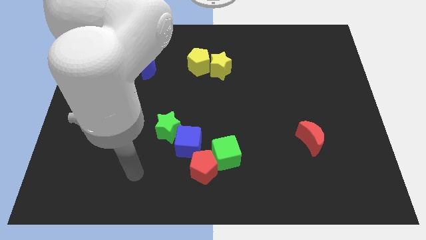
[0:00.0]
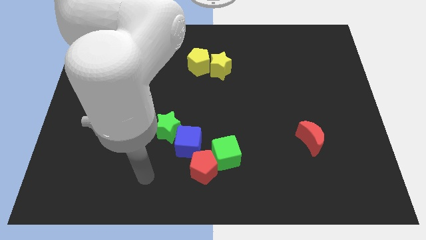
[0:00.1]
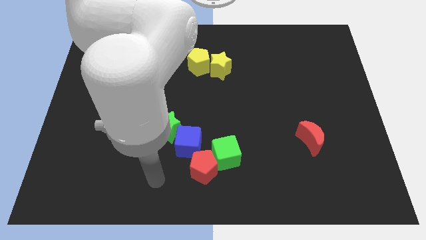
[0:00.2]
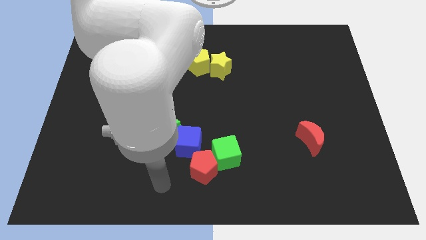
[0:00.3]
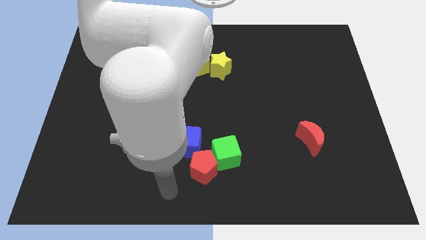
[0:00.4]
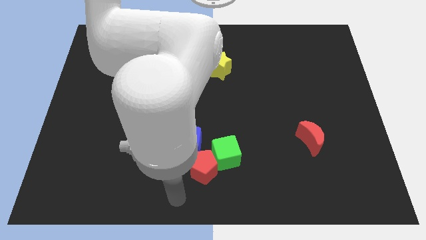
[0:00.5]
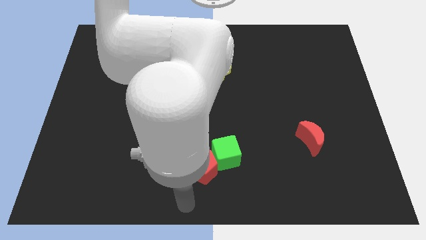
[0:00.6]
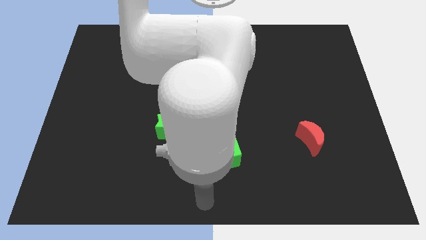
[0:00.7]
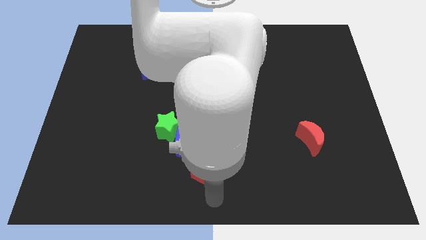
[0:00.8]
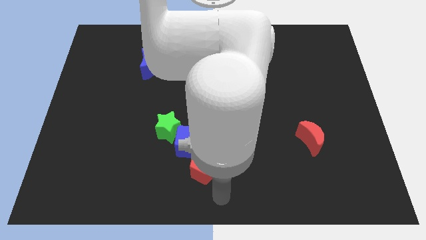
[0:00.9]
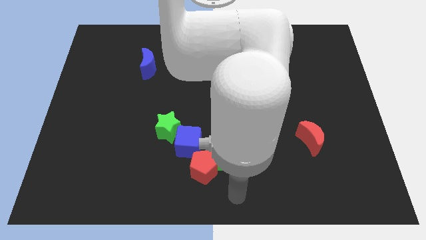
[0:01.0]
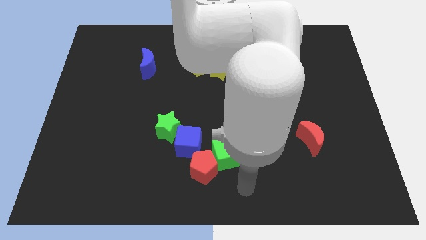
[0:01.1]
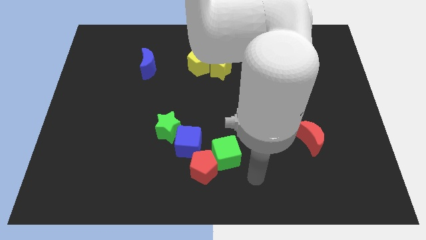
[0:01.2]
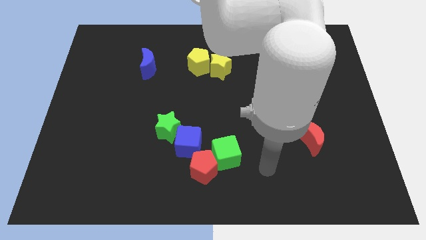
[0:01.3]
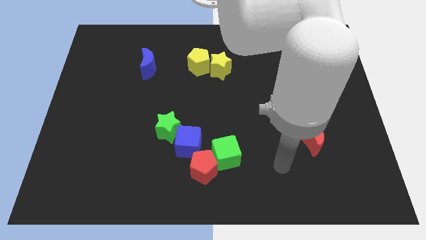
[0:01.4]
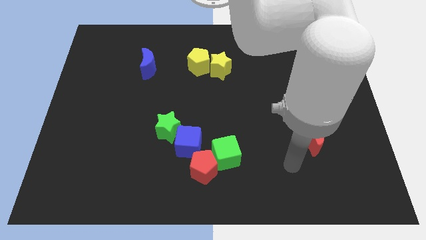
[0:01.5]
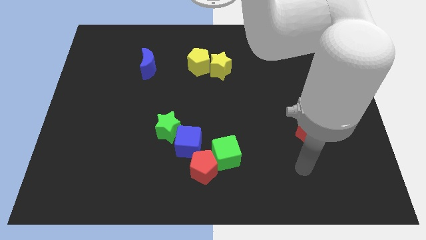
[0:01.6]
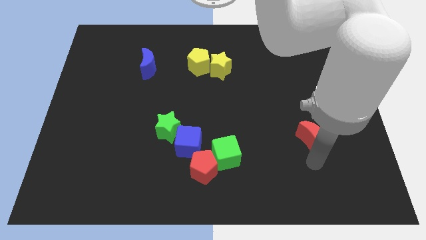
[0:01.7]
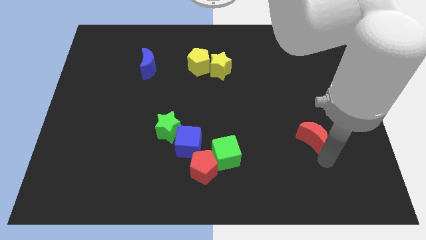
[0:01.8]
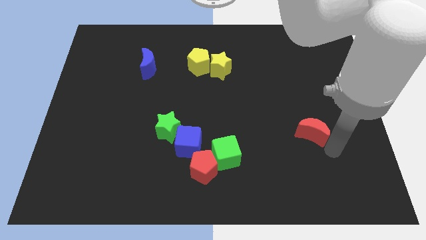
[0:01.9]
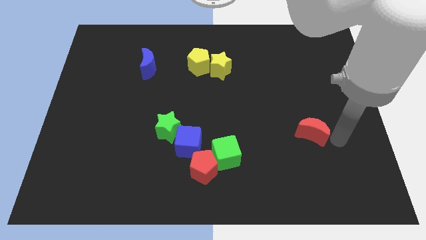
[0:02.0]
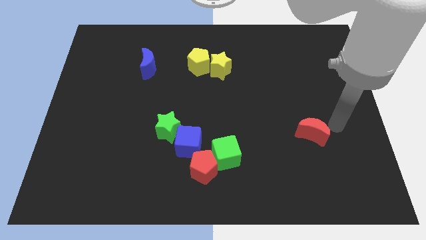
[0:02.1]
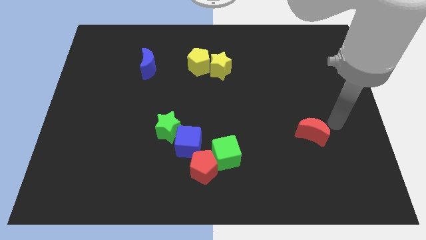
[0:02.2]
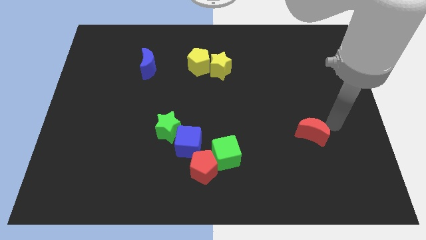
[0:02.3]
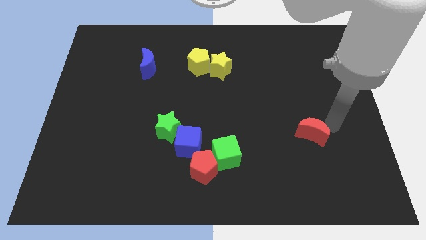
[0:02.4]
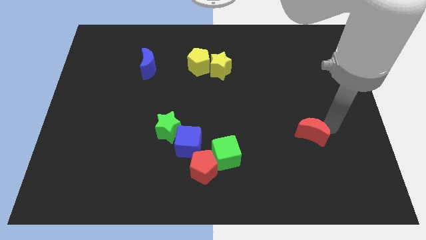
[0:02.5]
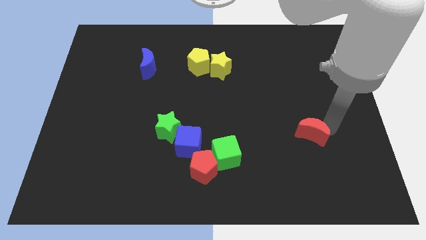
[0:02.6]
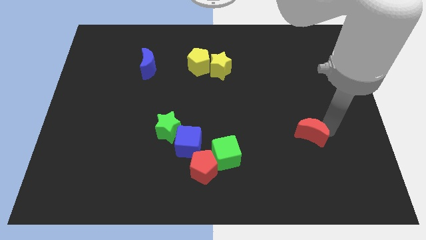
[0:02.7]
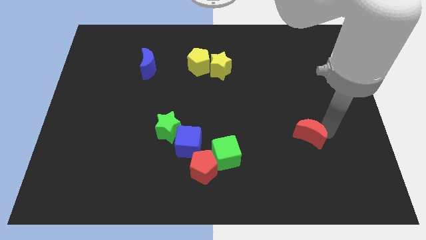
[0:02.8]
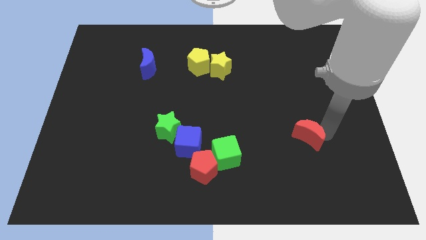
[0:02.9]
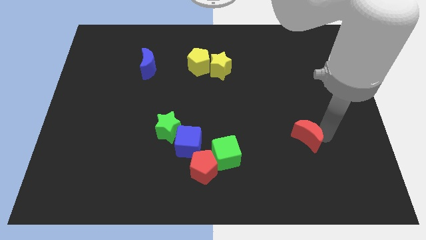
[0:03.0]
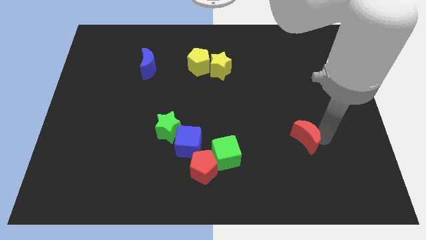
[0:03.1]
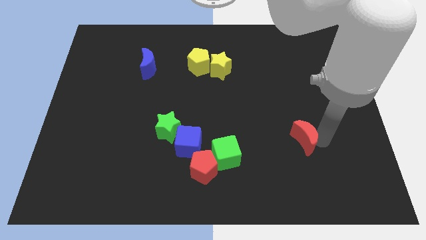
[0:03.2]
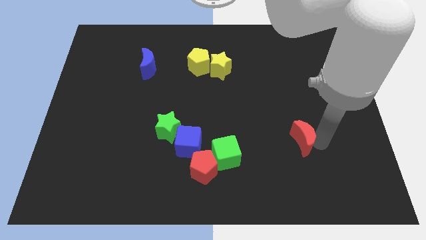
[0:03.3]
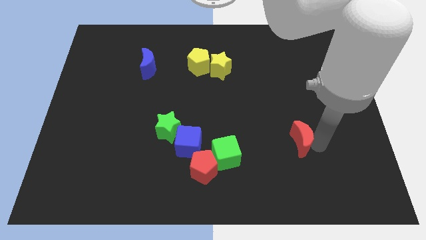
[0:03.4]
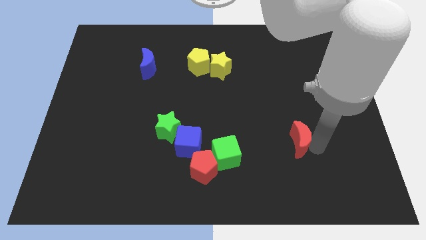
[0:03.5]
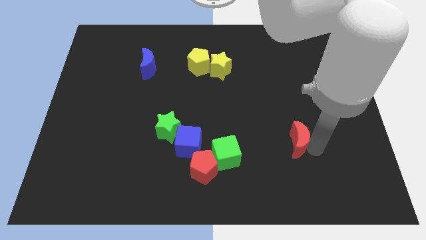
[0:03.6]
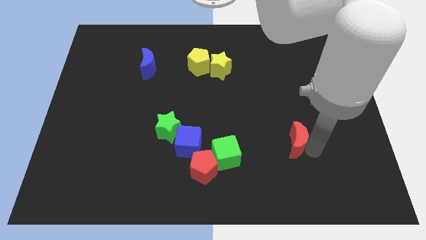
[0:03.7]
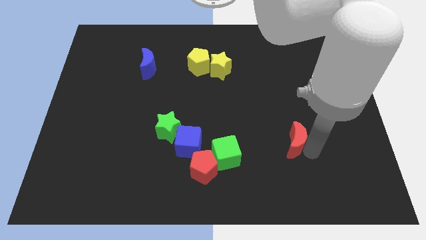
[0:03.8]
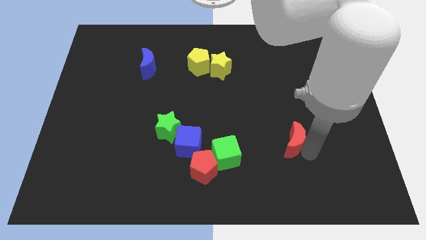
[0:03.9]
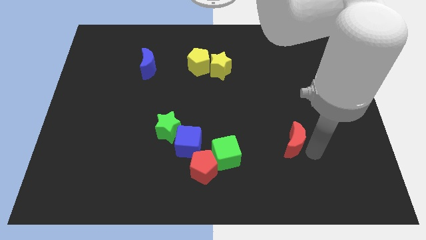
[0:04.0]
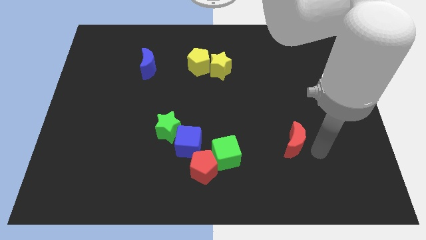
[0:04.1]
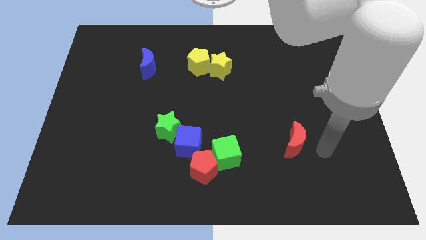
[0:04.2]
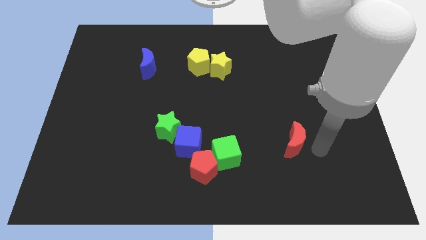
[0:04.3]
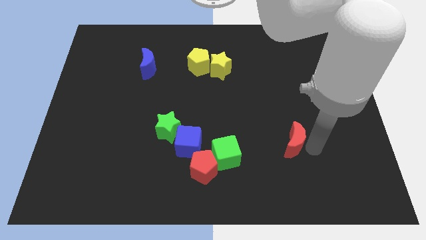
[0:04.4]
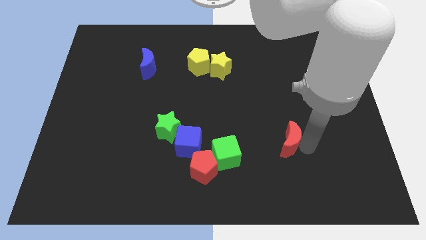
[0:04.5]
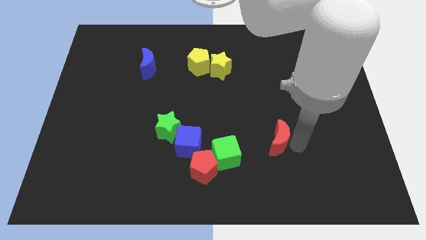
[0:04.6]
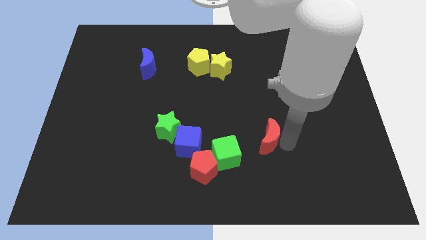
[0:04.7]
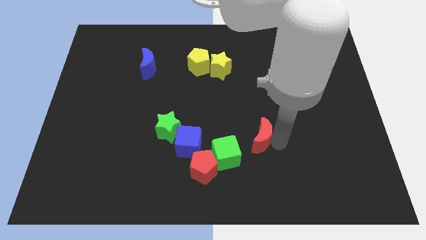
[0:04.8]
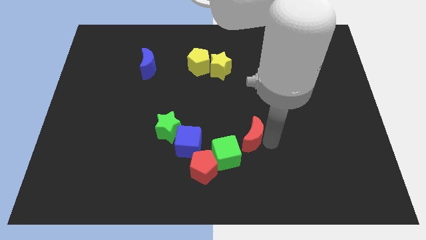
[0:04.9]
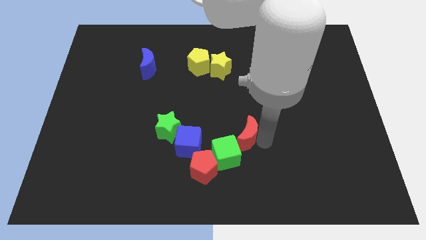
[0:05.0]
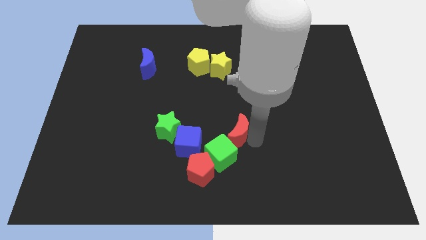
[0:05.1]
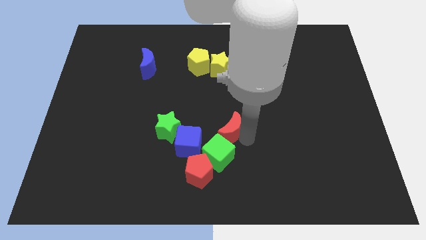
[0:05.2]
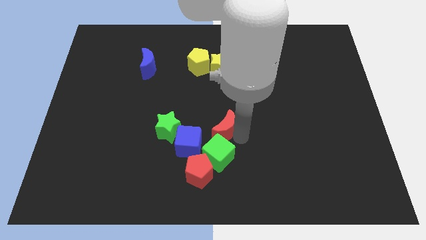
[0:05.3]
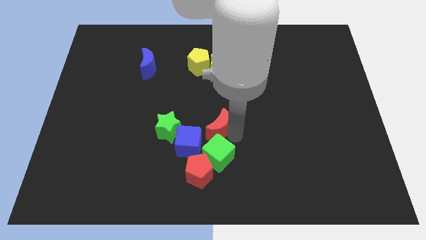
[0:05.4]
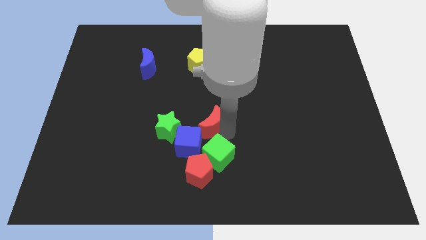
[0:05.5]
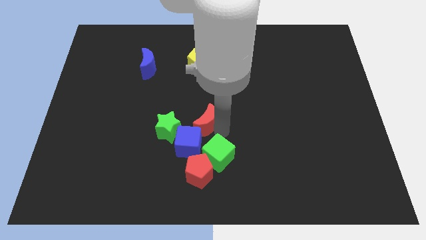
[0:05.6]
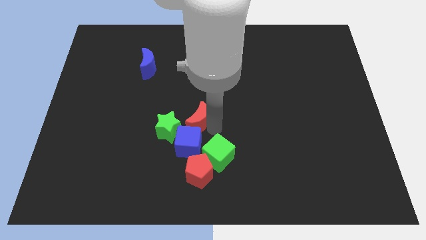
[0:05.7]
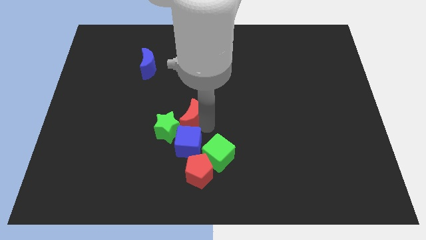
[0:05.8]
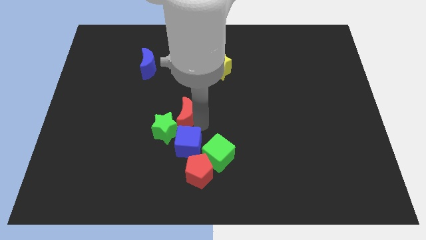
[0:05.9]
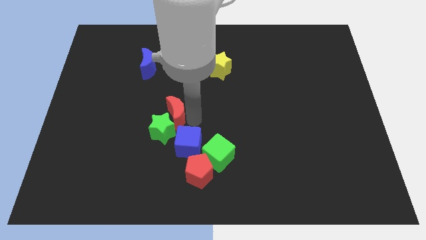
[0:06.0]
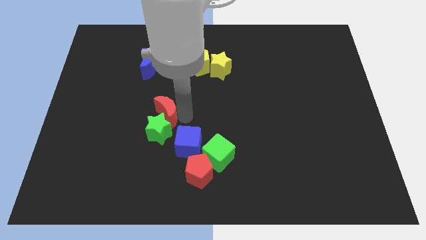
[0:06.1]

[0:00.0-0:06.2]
put the red moon to the top left side of the green star

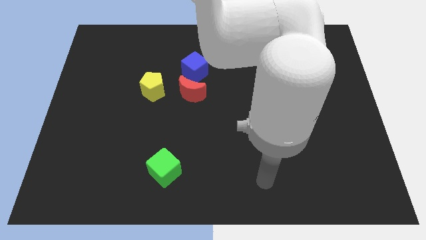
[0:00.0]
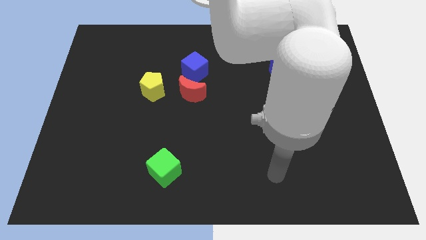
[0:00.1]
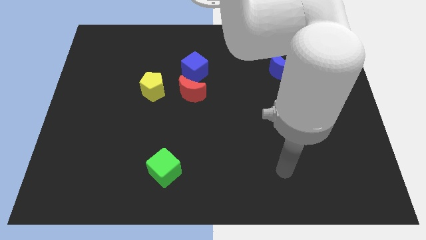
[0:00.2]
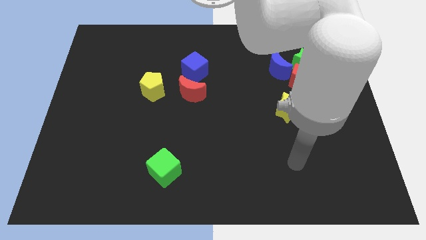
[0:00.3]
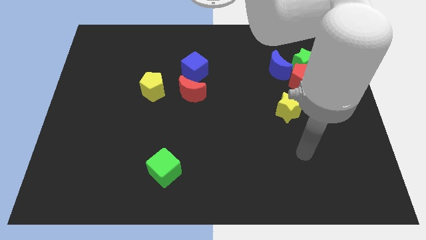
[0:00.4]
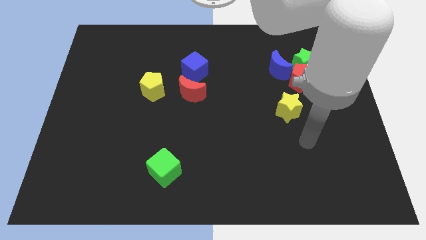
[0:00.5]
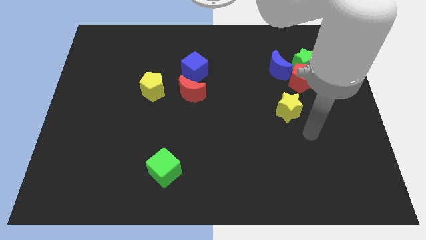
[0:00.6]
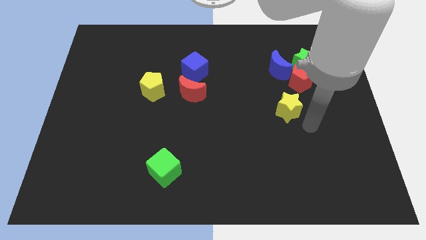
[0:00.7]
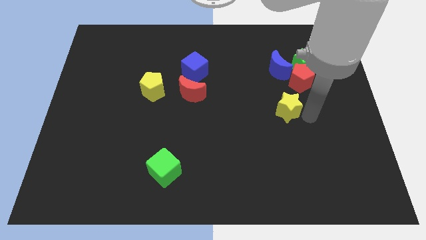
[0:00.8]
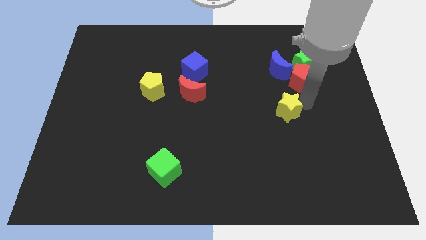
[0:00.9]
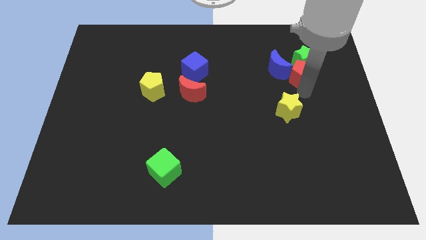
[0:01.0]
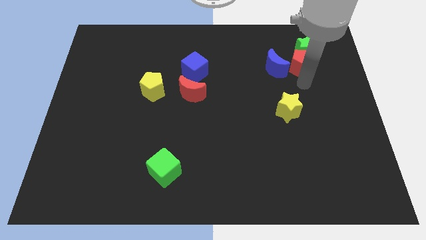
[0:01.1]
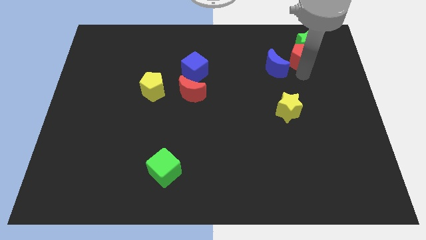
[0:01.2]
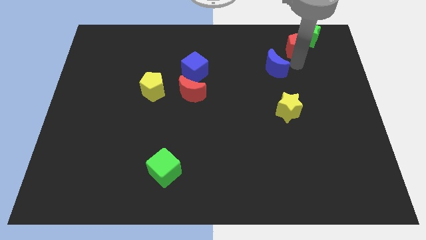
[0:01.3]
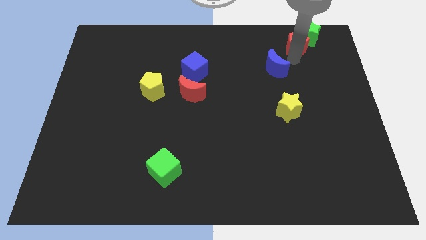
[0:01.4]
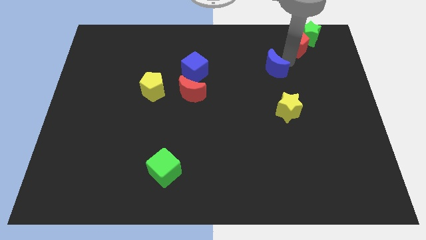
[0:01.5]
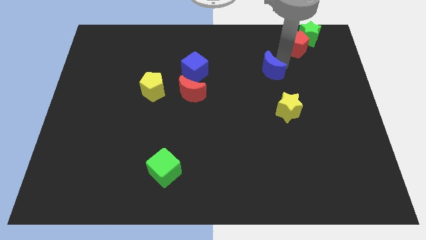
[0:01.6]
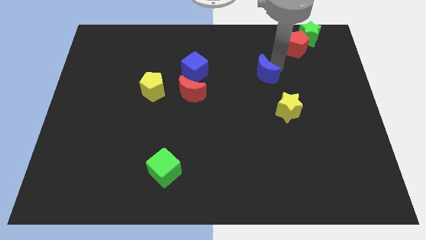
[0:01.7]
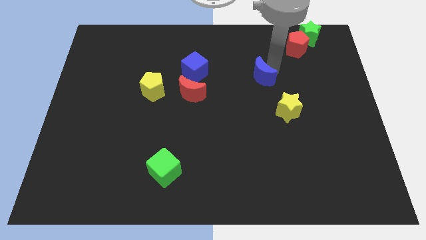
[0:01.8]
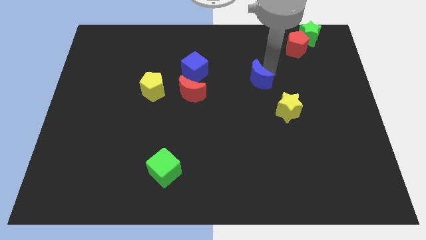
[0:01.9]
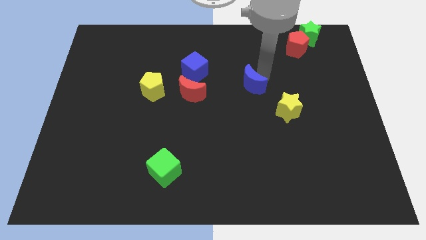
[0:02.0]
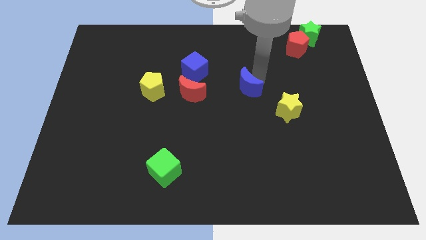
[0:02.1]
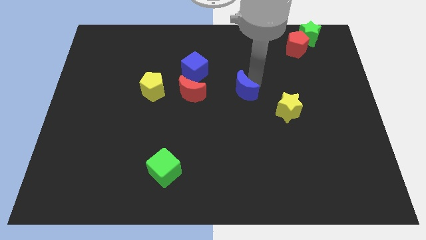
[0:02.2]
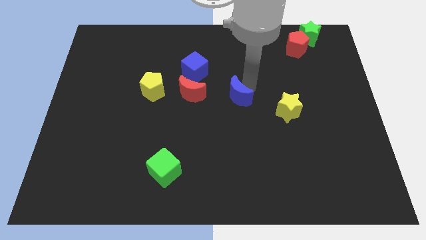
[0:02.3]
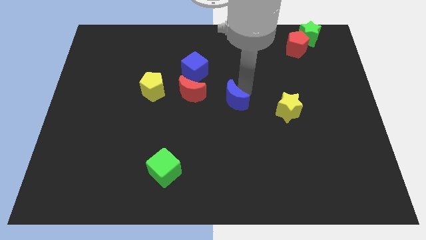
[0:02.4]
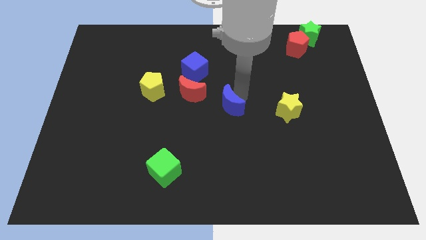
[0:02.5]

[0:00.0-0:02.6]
move the blue moon to the bottom right of the red moon
